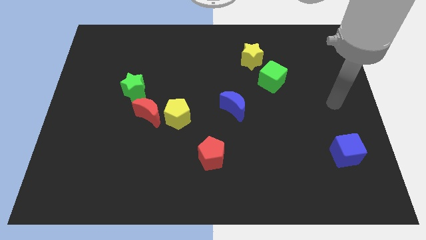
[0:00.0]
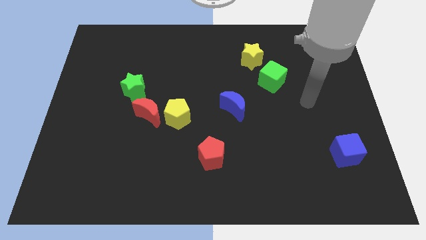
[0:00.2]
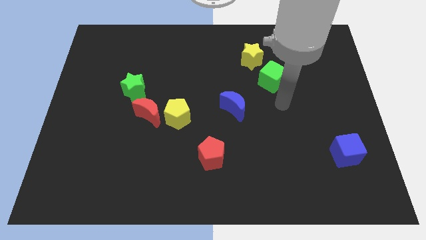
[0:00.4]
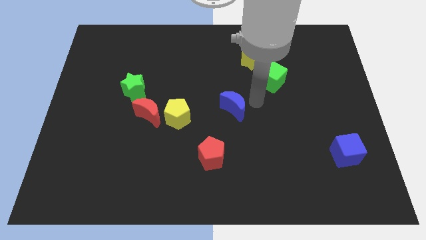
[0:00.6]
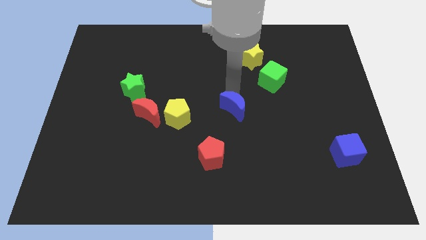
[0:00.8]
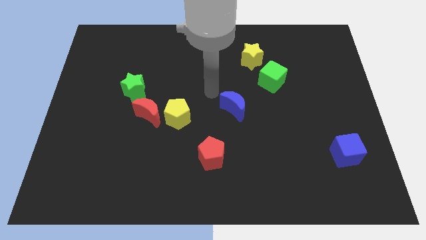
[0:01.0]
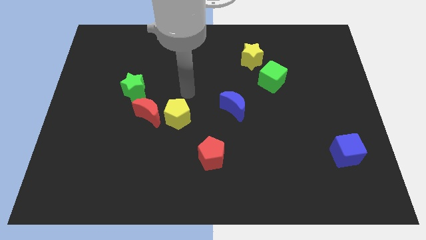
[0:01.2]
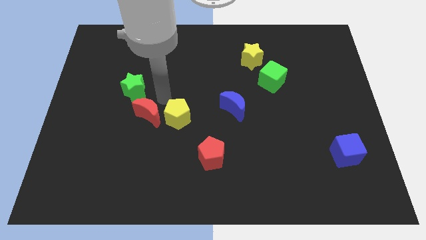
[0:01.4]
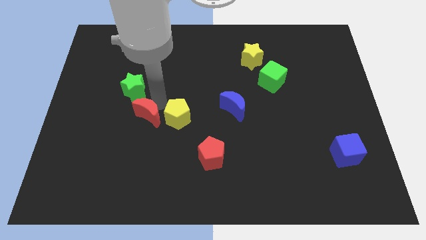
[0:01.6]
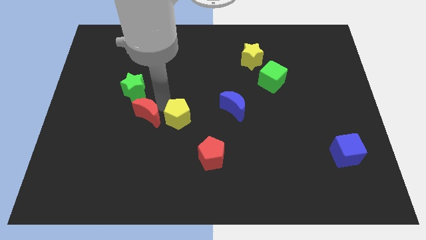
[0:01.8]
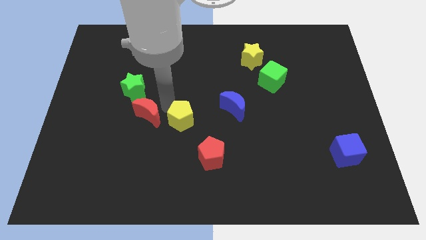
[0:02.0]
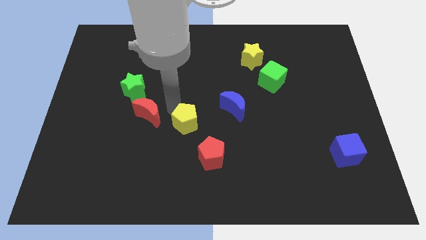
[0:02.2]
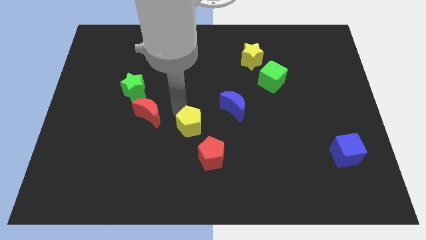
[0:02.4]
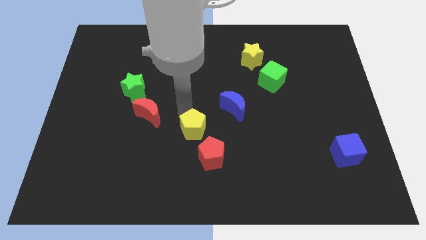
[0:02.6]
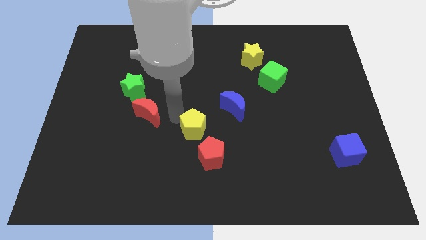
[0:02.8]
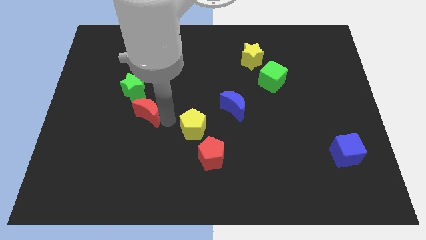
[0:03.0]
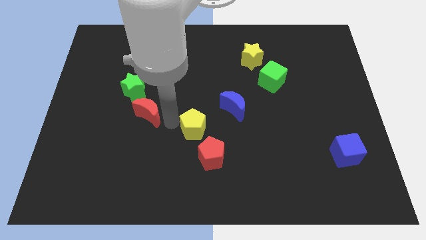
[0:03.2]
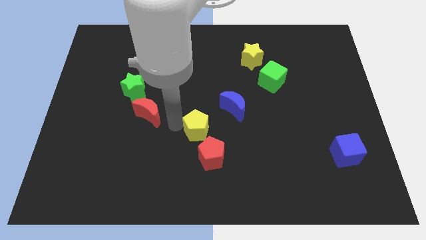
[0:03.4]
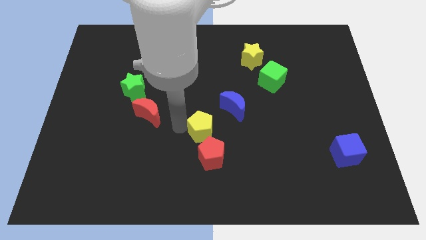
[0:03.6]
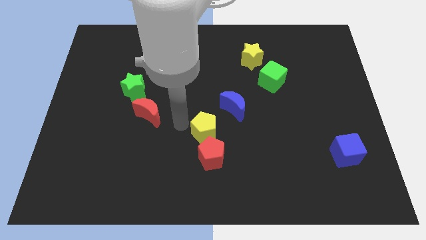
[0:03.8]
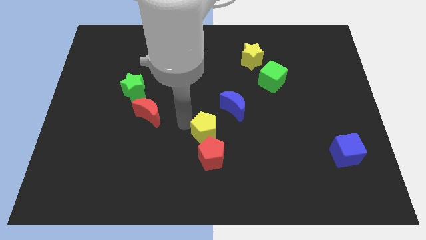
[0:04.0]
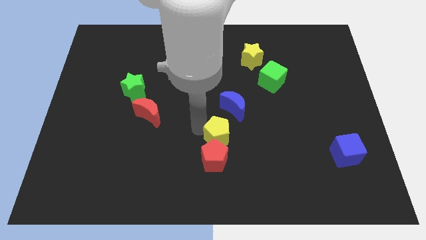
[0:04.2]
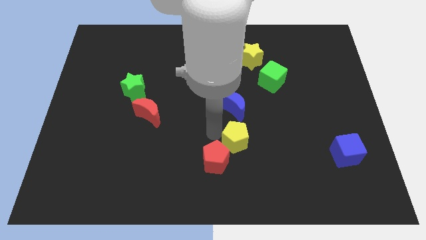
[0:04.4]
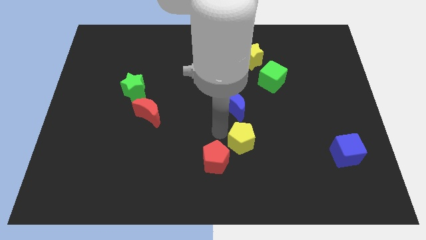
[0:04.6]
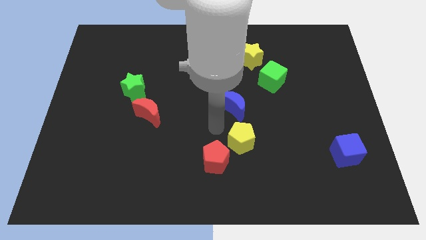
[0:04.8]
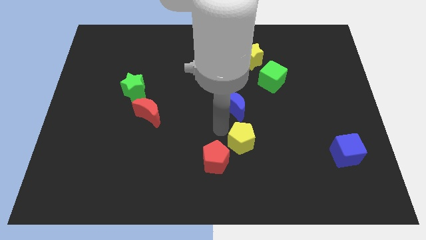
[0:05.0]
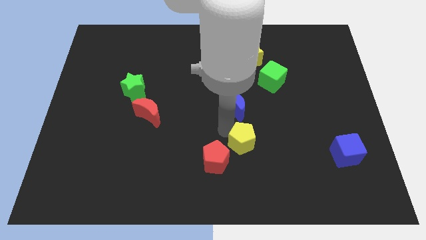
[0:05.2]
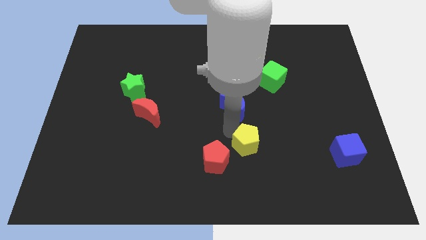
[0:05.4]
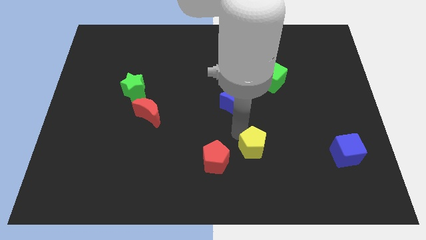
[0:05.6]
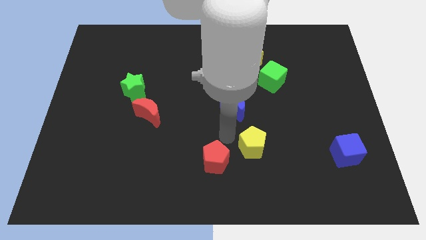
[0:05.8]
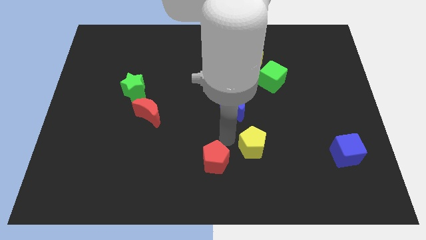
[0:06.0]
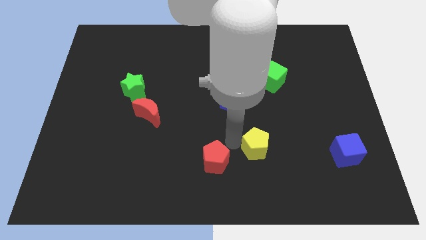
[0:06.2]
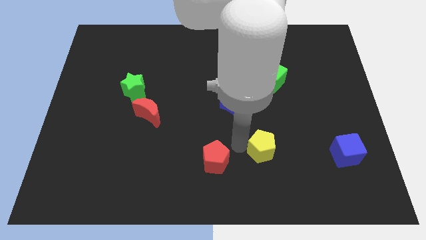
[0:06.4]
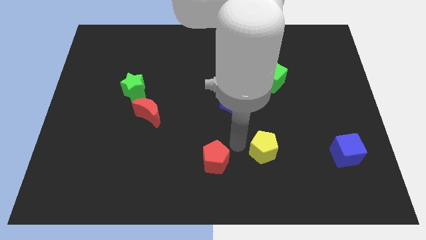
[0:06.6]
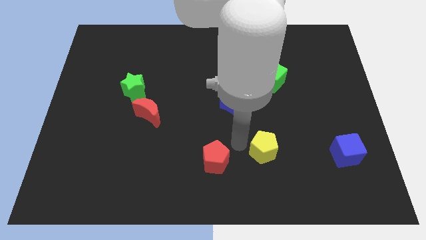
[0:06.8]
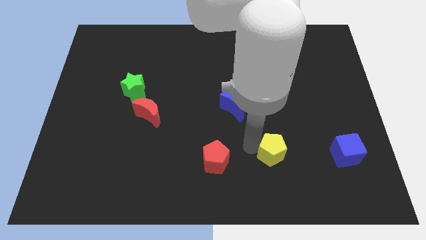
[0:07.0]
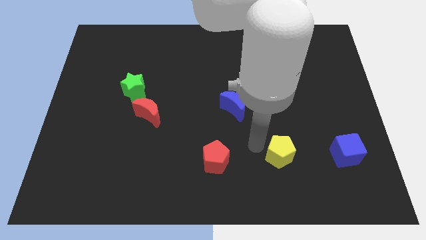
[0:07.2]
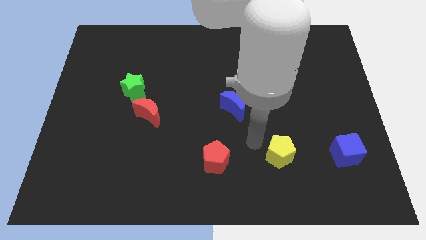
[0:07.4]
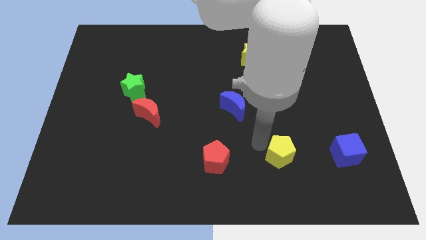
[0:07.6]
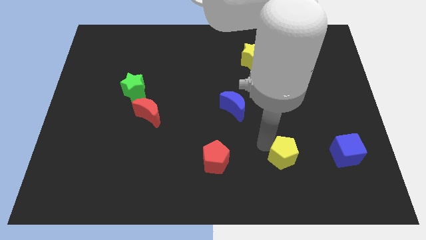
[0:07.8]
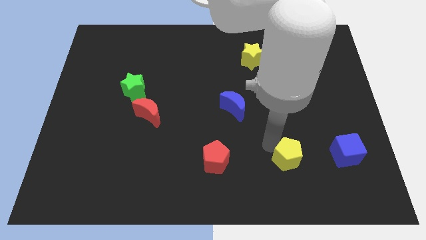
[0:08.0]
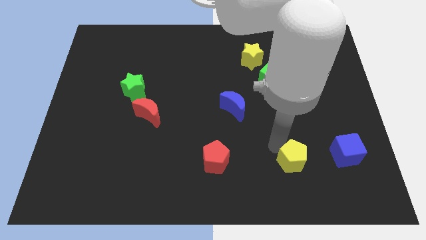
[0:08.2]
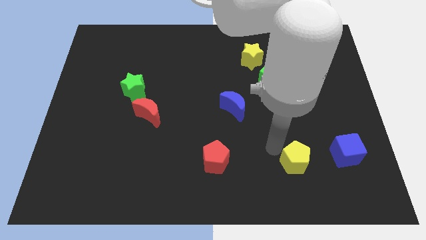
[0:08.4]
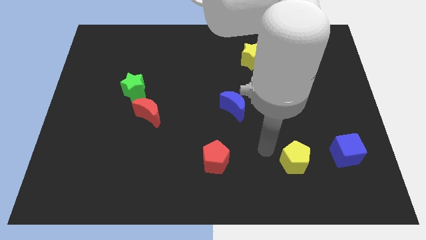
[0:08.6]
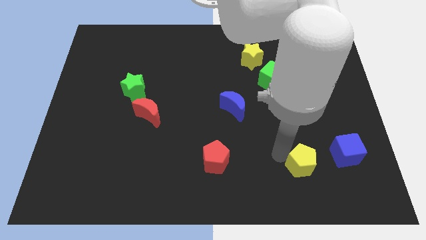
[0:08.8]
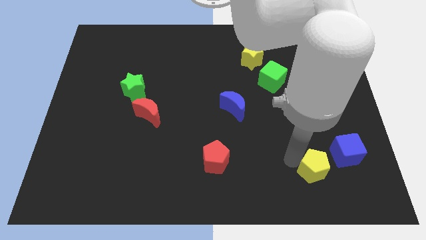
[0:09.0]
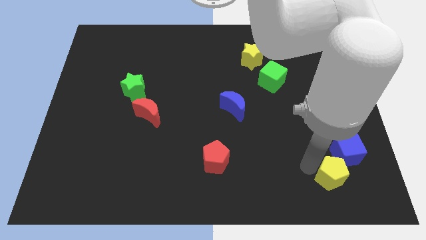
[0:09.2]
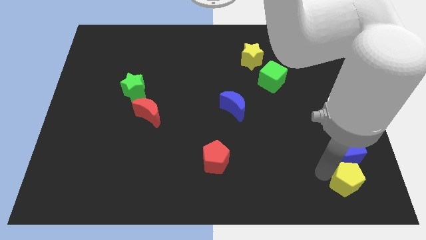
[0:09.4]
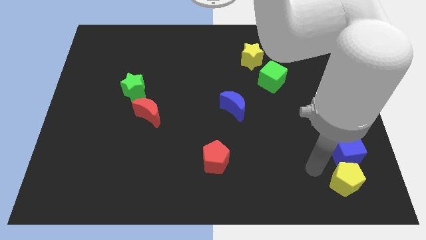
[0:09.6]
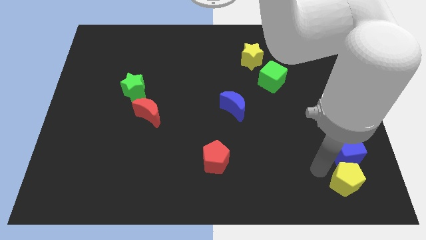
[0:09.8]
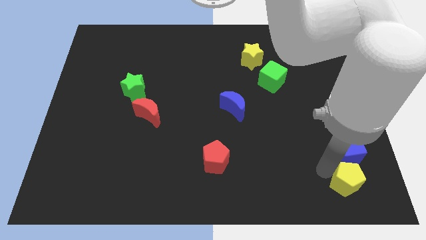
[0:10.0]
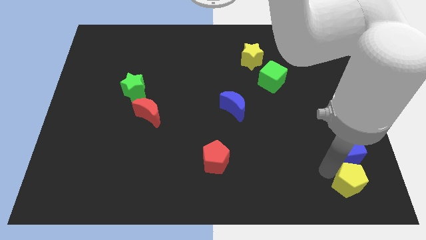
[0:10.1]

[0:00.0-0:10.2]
push the yellow pentagon to the bottom right of the board

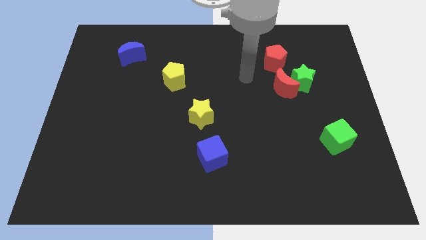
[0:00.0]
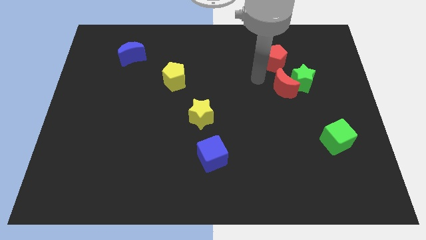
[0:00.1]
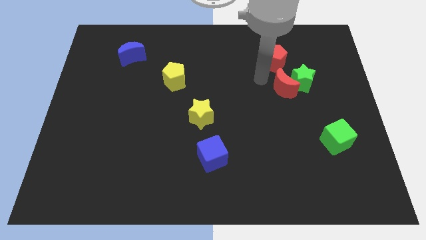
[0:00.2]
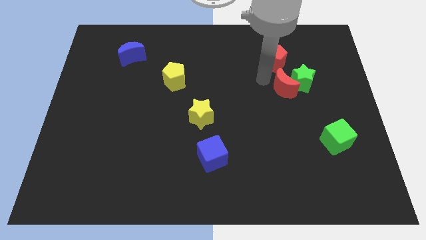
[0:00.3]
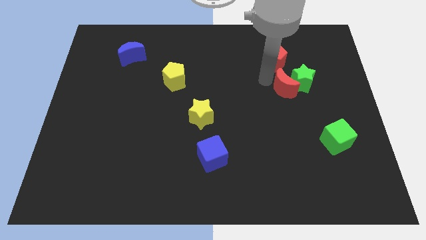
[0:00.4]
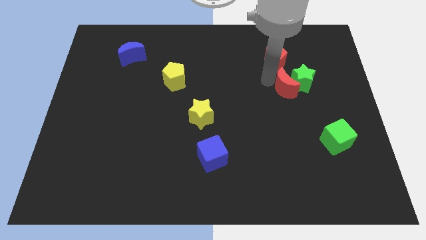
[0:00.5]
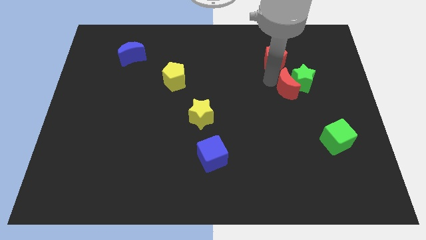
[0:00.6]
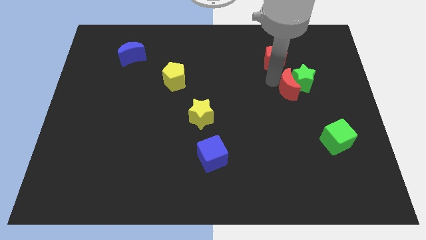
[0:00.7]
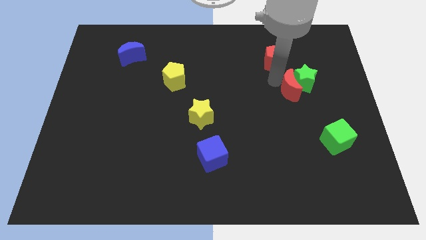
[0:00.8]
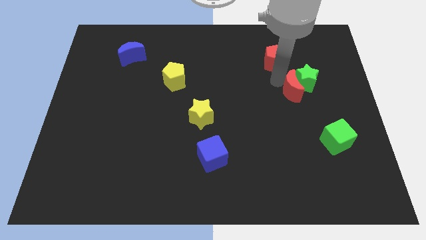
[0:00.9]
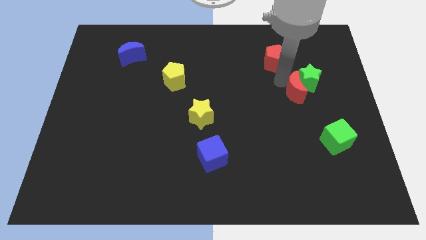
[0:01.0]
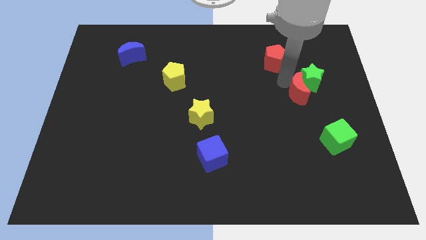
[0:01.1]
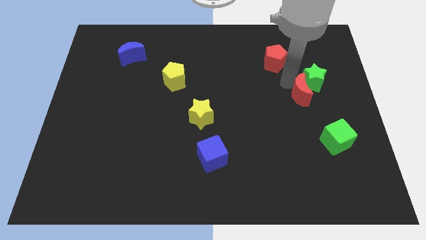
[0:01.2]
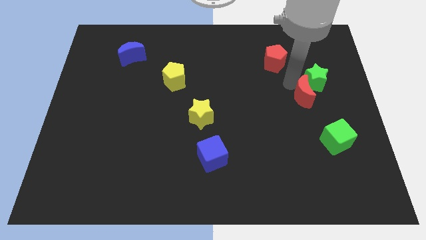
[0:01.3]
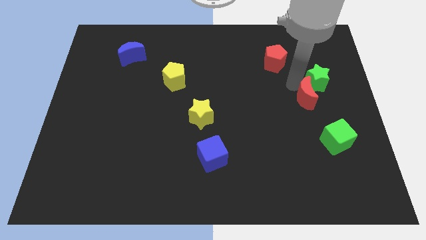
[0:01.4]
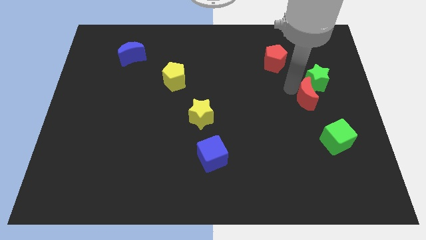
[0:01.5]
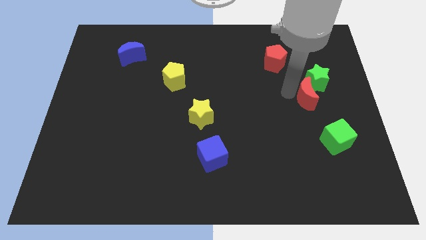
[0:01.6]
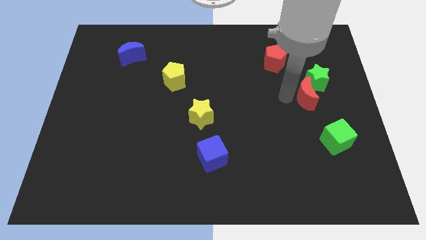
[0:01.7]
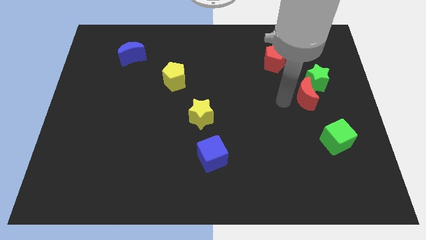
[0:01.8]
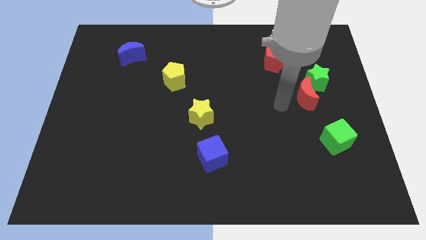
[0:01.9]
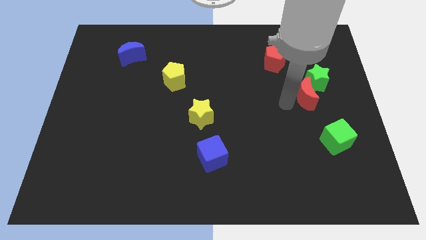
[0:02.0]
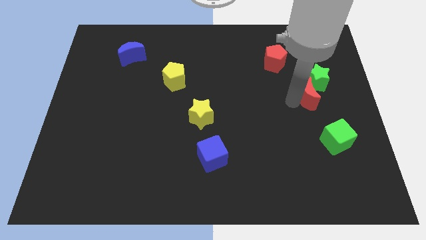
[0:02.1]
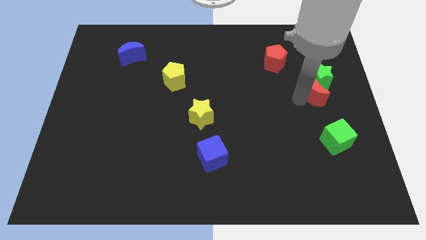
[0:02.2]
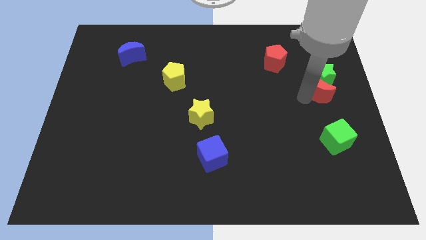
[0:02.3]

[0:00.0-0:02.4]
slide the red moon to the right side of the board
